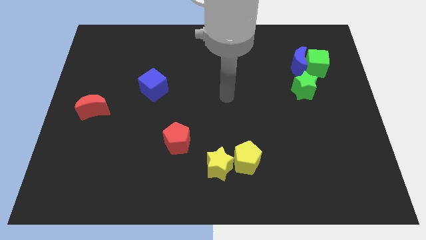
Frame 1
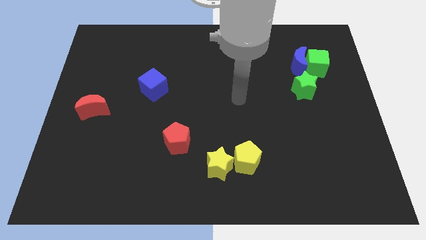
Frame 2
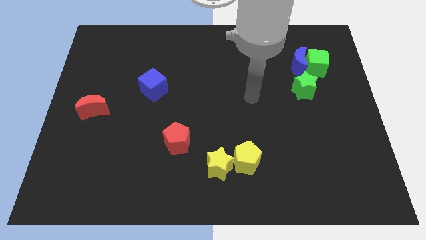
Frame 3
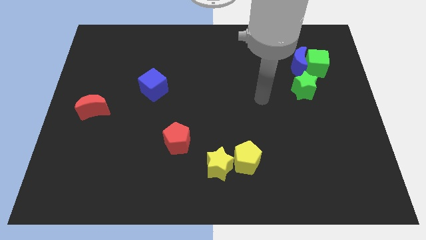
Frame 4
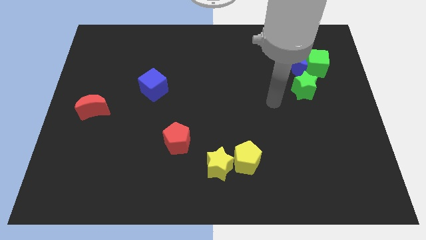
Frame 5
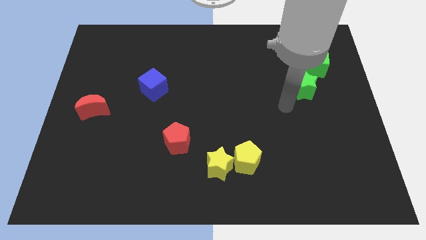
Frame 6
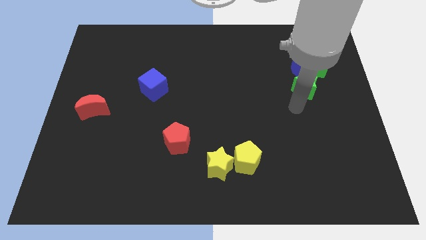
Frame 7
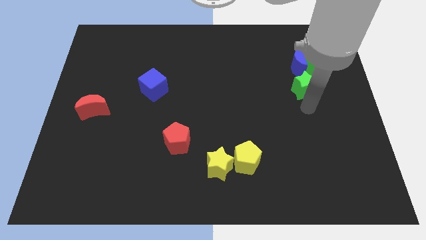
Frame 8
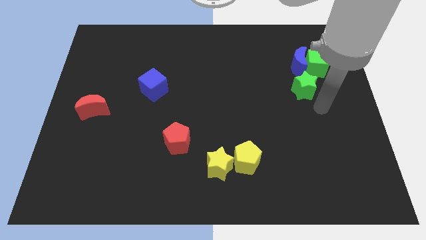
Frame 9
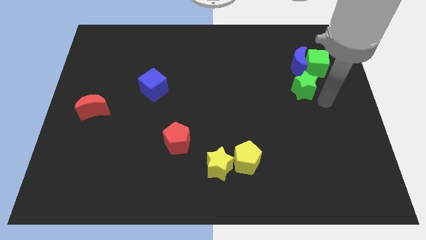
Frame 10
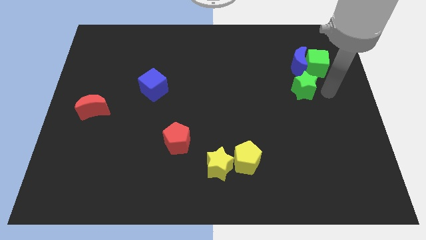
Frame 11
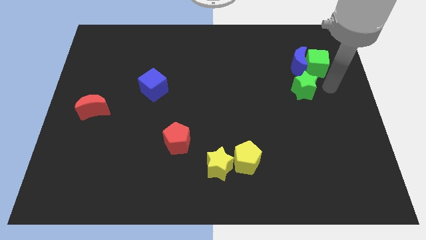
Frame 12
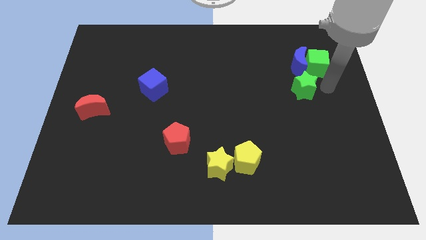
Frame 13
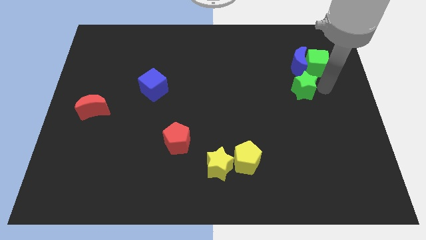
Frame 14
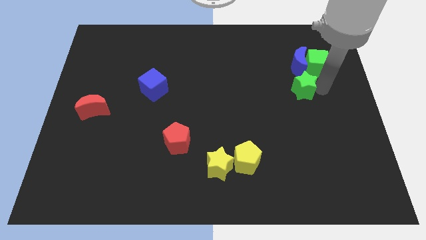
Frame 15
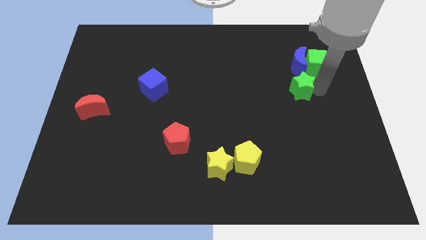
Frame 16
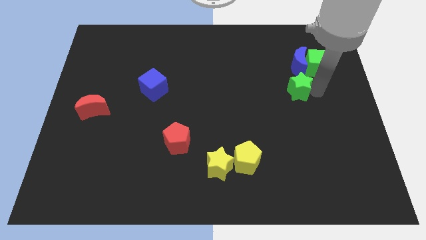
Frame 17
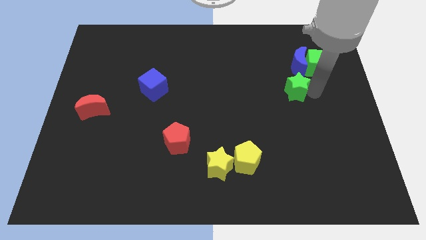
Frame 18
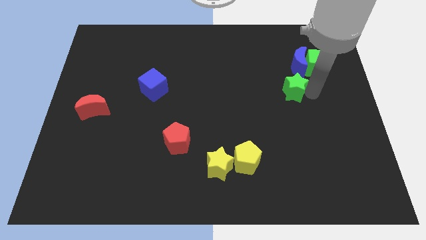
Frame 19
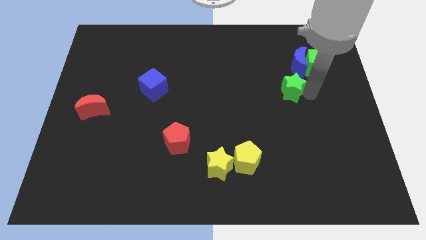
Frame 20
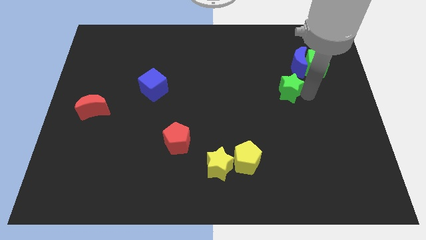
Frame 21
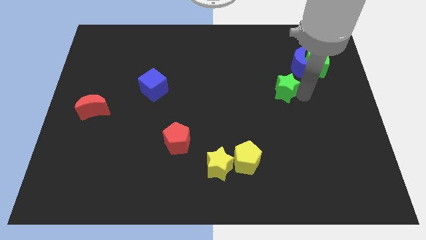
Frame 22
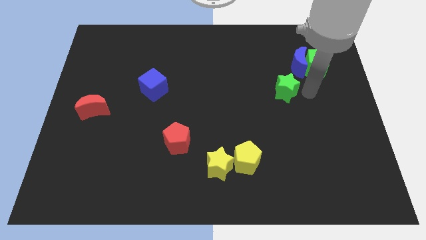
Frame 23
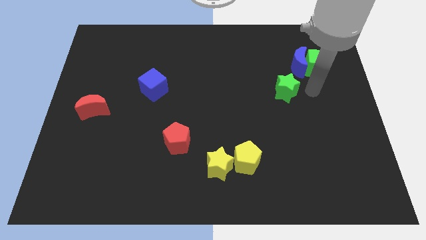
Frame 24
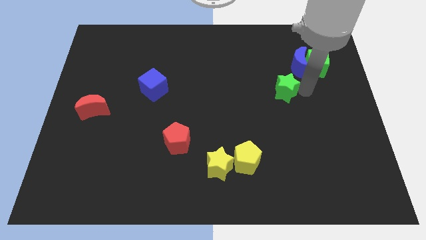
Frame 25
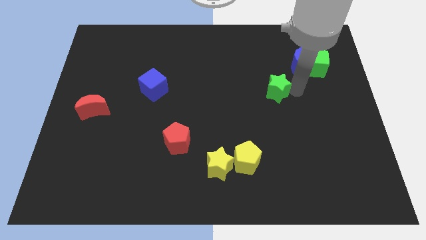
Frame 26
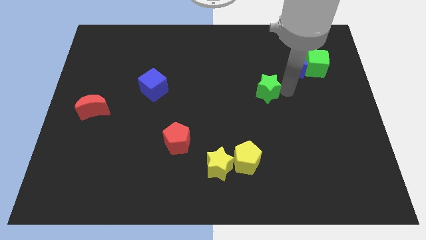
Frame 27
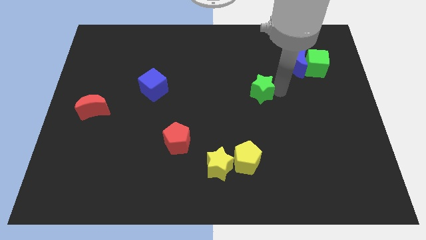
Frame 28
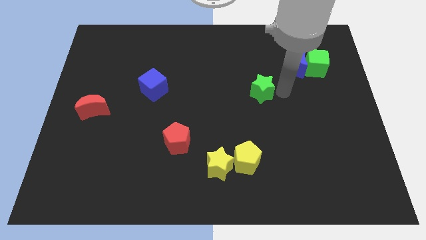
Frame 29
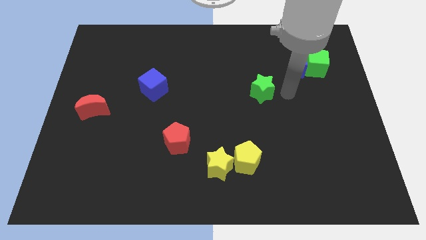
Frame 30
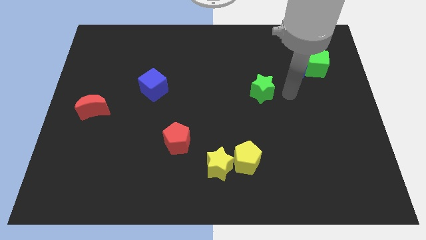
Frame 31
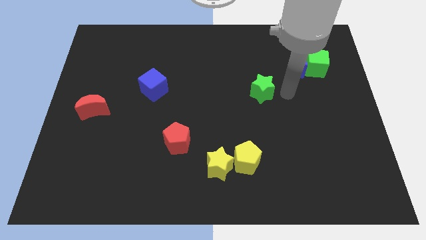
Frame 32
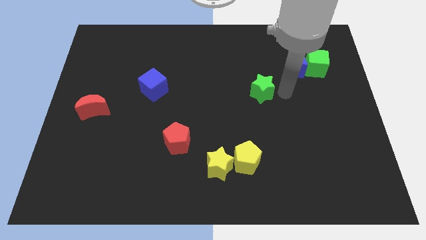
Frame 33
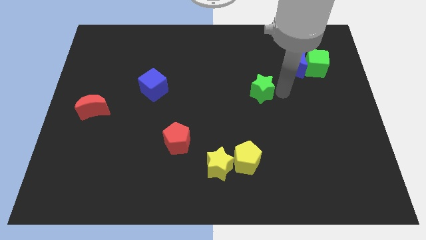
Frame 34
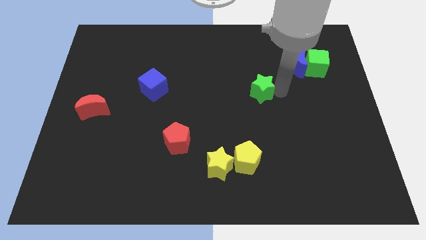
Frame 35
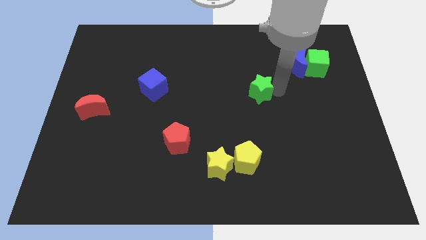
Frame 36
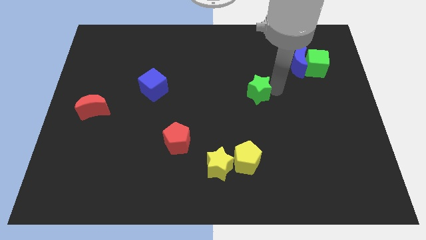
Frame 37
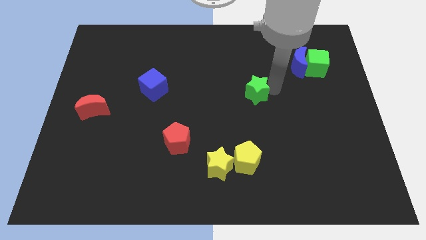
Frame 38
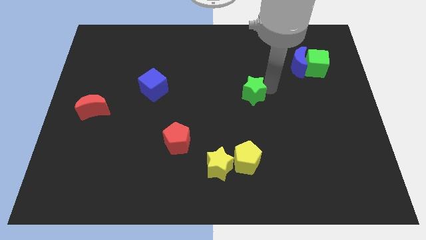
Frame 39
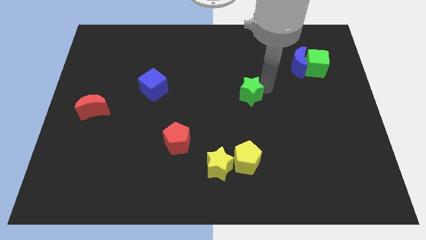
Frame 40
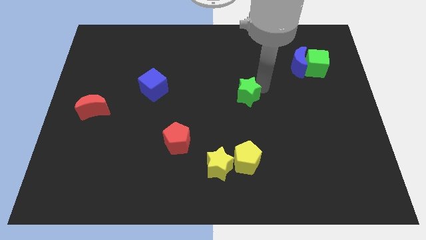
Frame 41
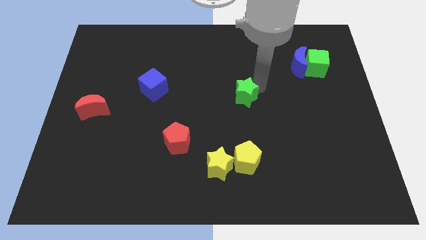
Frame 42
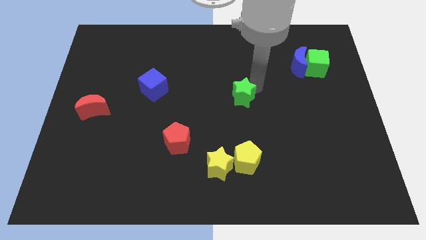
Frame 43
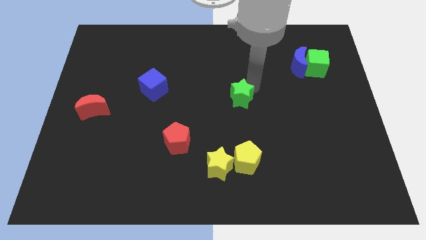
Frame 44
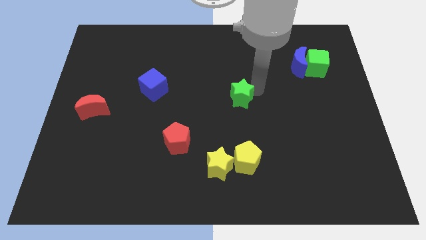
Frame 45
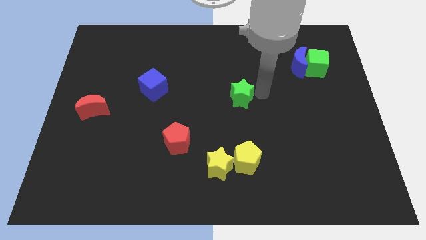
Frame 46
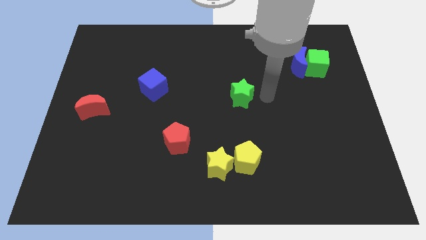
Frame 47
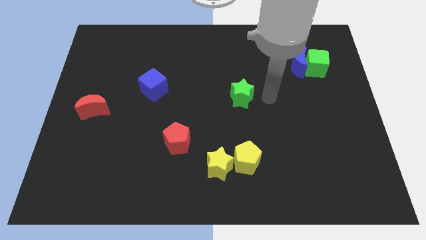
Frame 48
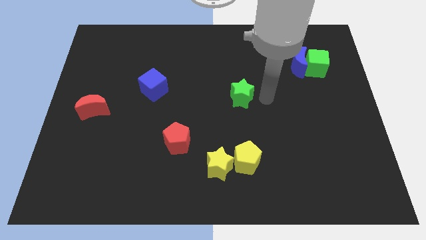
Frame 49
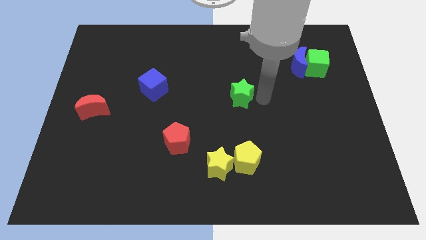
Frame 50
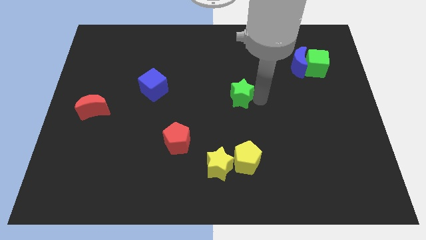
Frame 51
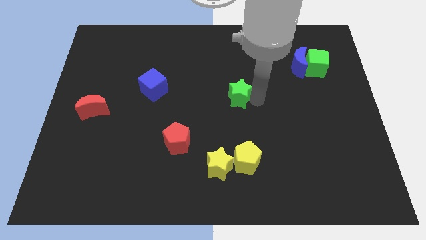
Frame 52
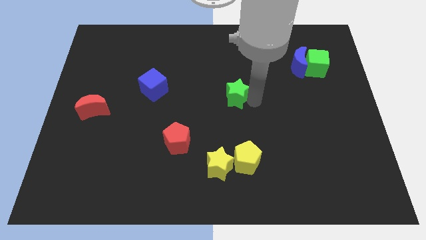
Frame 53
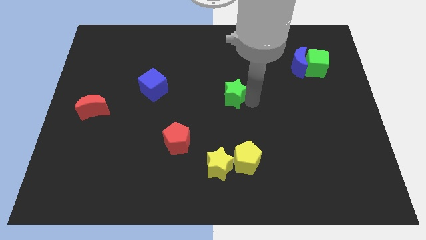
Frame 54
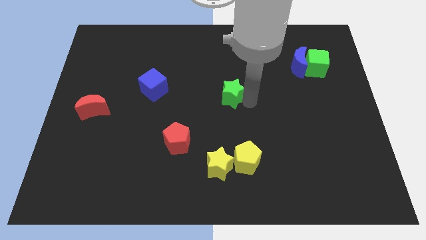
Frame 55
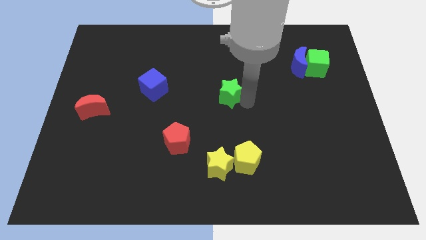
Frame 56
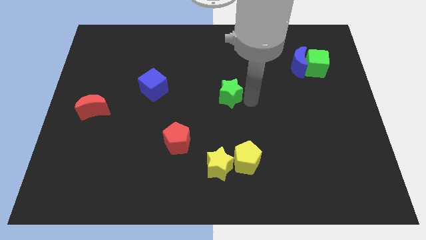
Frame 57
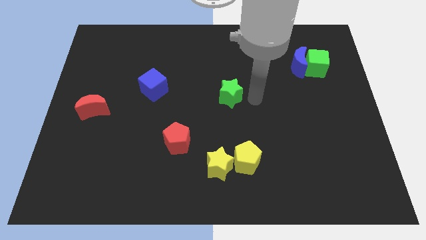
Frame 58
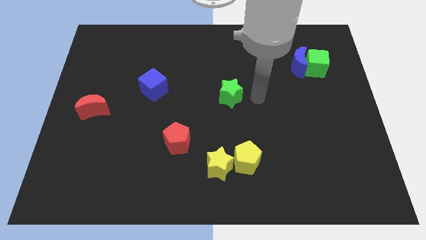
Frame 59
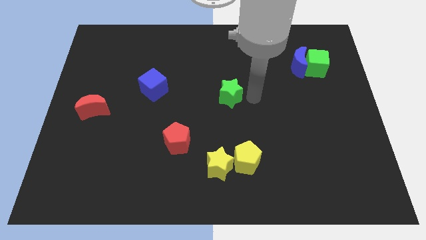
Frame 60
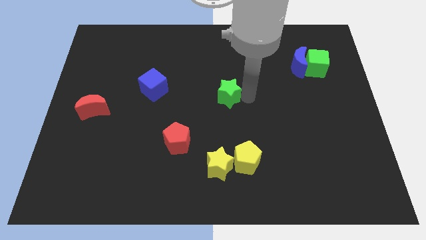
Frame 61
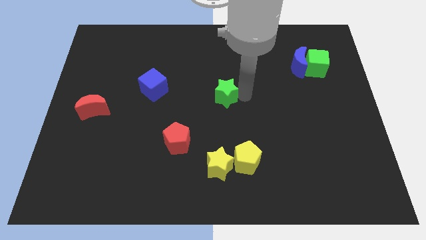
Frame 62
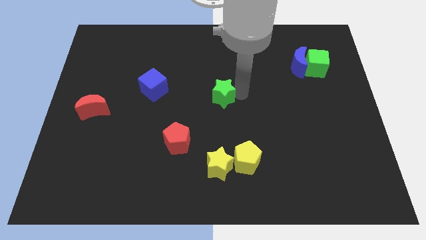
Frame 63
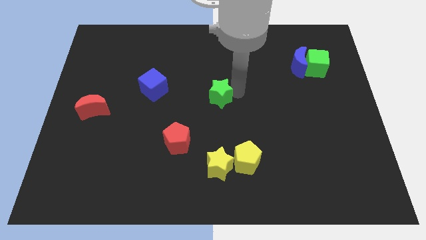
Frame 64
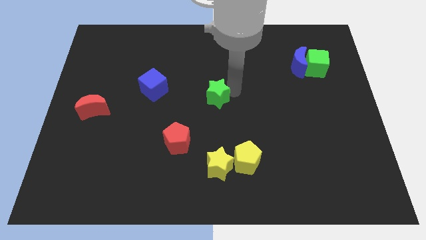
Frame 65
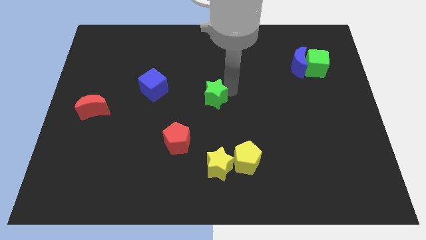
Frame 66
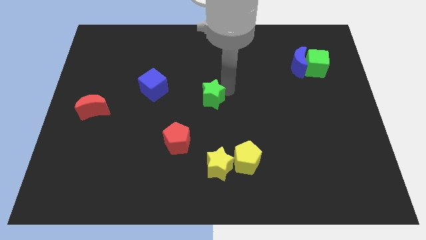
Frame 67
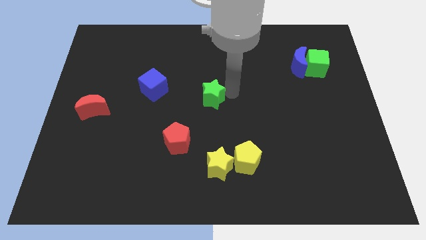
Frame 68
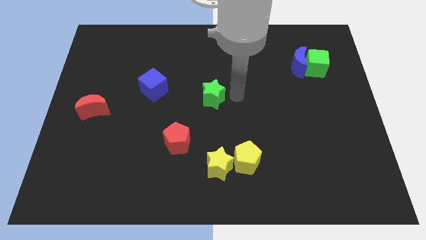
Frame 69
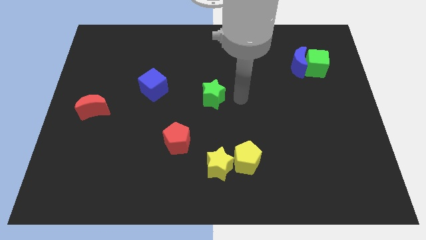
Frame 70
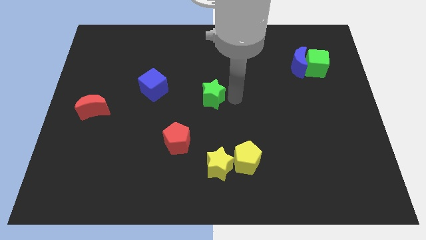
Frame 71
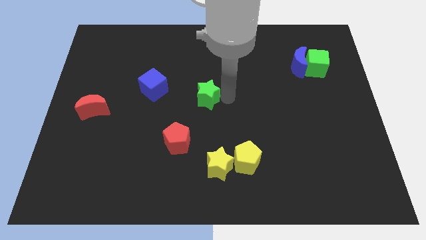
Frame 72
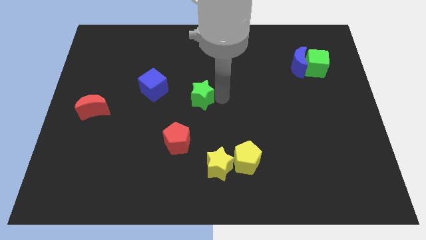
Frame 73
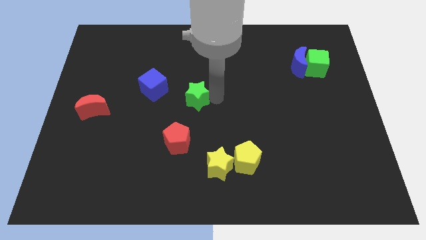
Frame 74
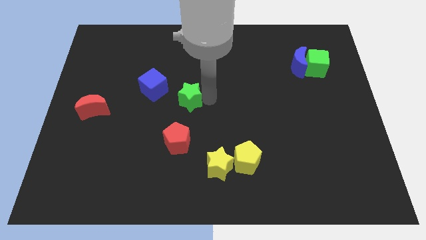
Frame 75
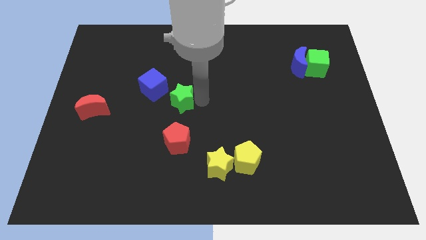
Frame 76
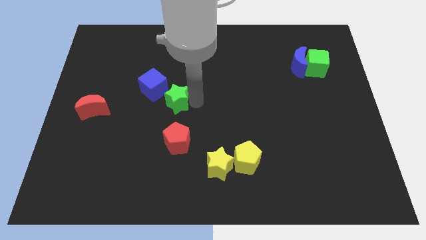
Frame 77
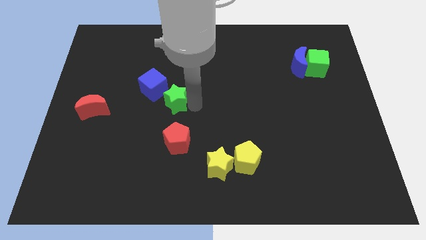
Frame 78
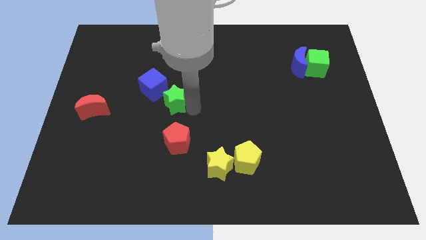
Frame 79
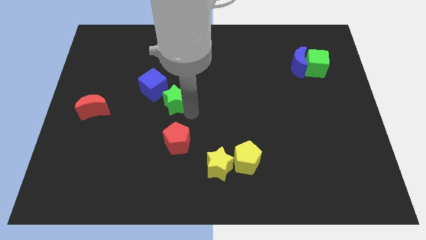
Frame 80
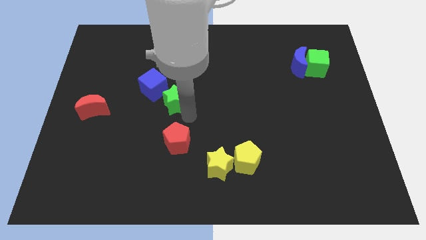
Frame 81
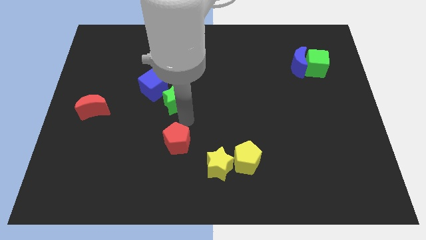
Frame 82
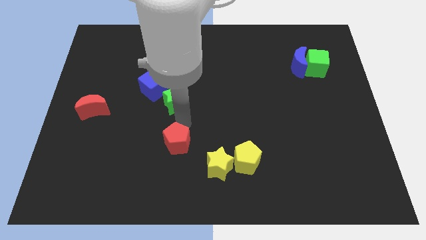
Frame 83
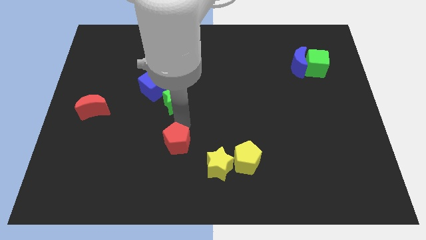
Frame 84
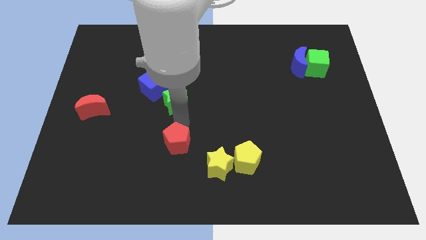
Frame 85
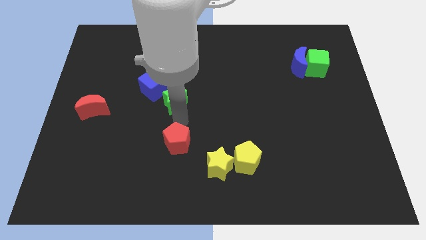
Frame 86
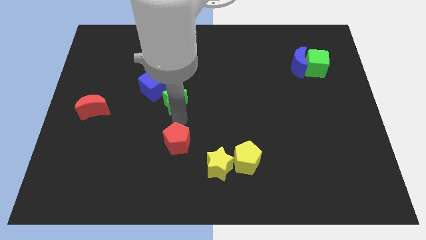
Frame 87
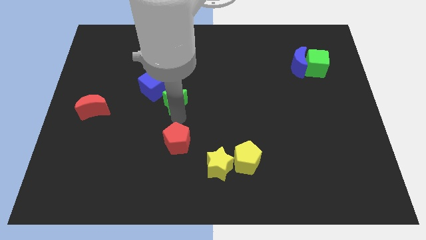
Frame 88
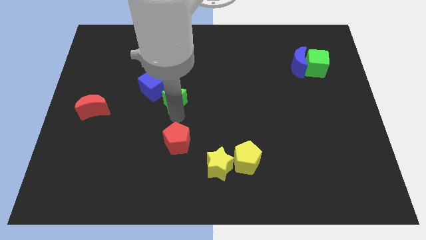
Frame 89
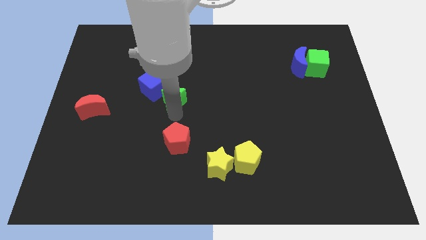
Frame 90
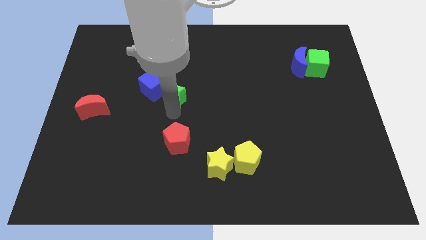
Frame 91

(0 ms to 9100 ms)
slide the green star to the blue cube
